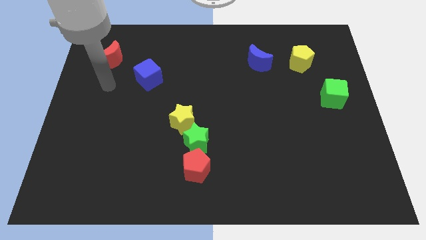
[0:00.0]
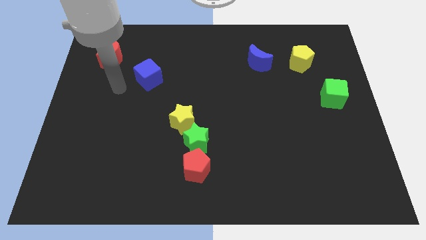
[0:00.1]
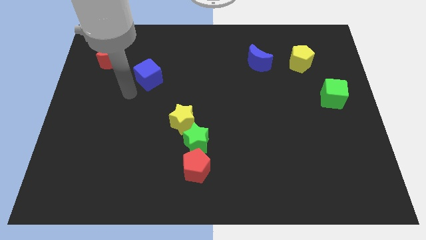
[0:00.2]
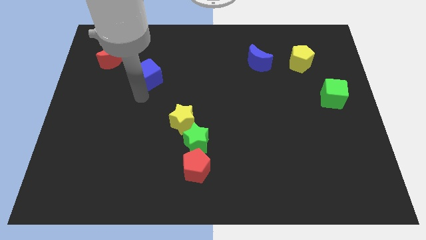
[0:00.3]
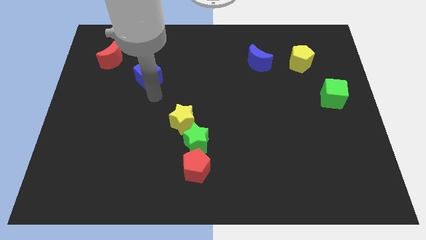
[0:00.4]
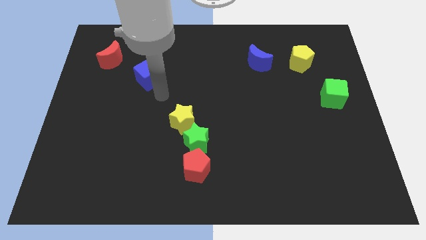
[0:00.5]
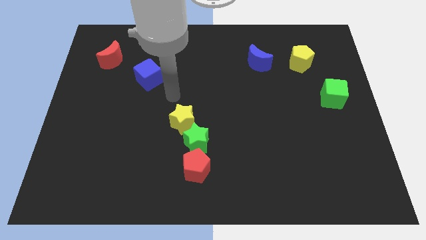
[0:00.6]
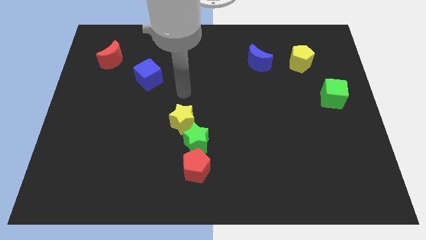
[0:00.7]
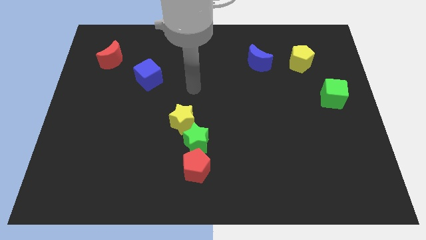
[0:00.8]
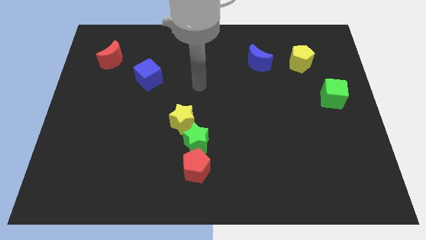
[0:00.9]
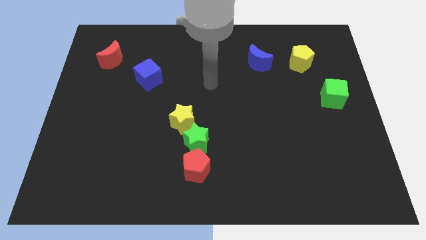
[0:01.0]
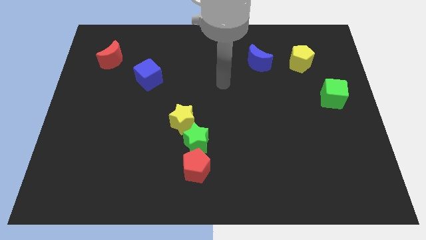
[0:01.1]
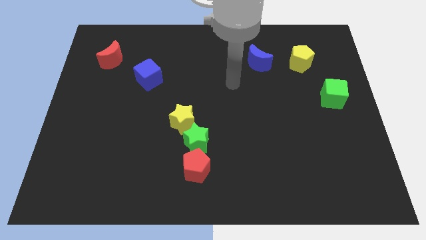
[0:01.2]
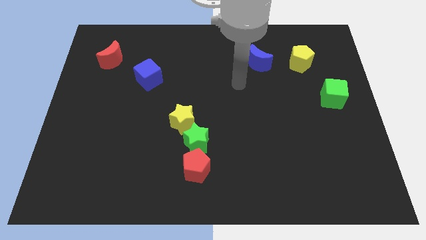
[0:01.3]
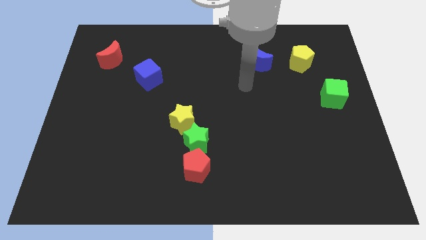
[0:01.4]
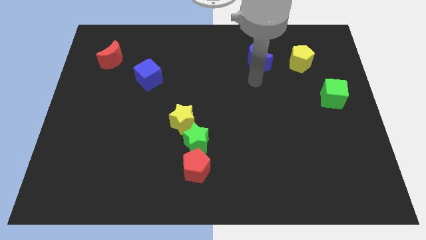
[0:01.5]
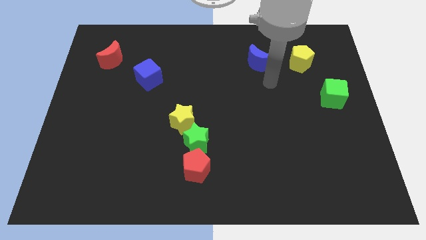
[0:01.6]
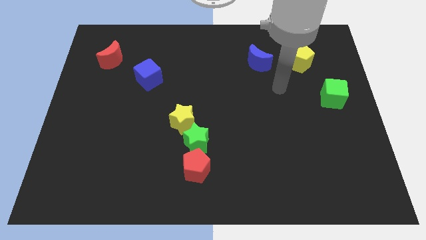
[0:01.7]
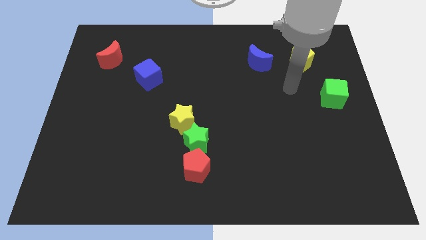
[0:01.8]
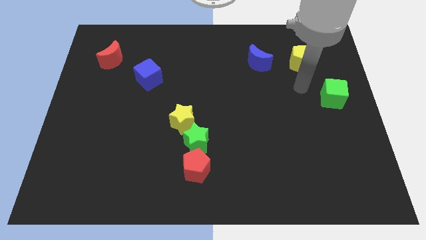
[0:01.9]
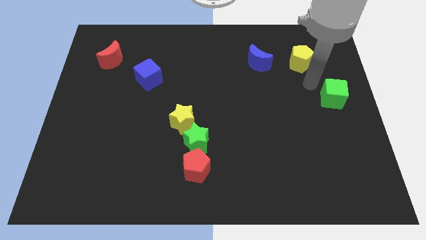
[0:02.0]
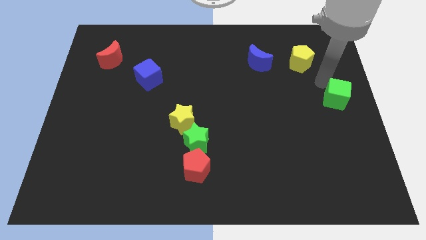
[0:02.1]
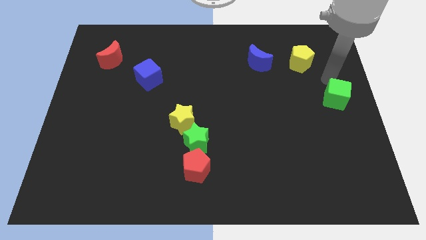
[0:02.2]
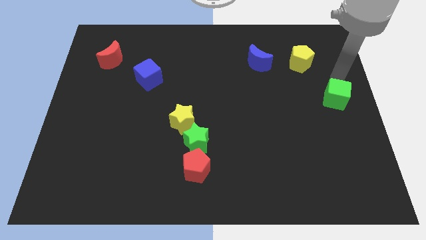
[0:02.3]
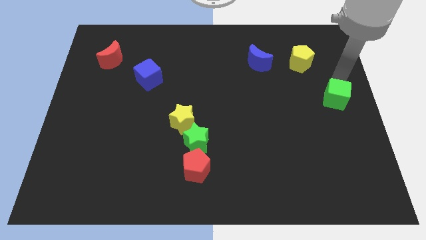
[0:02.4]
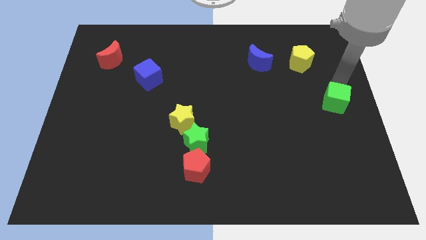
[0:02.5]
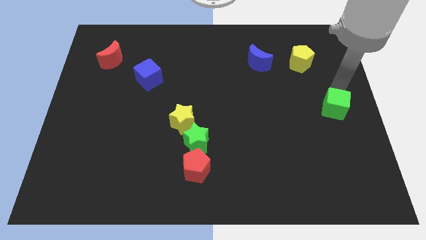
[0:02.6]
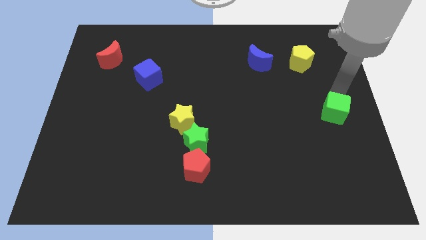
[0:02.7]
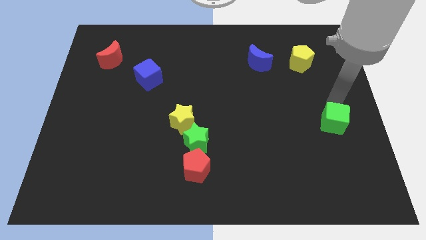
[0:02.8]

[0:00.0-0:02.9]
slightly move the green cube downwards

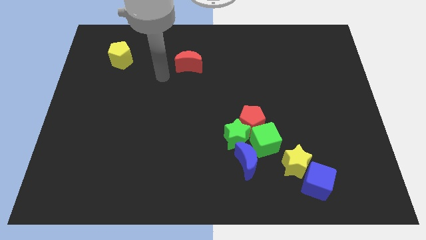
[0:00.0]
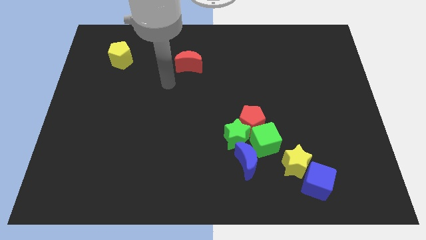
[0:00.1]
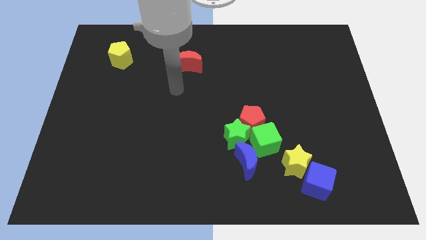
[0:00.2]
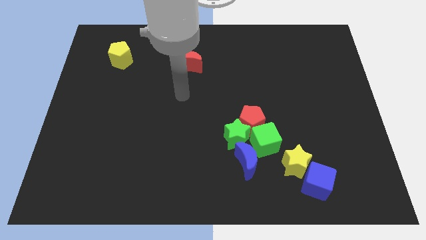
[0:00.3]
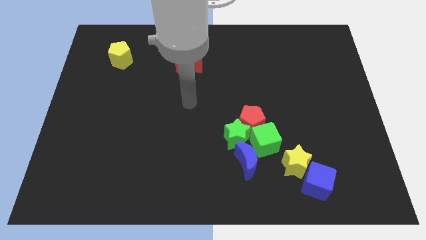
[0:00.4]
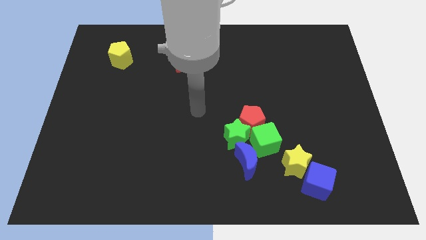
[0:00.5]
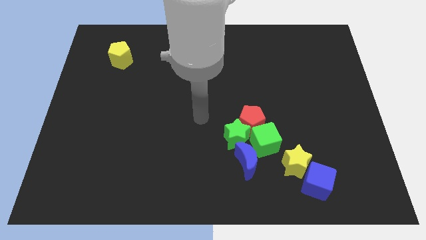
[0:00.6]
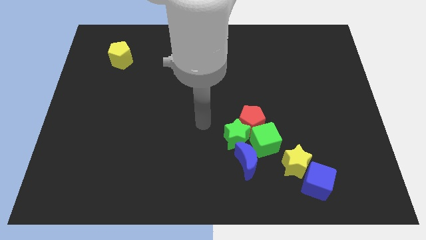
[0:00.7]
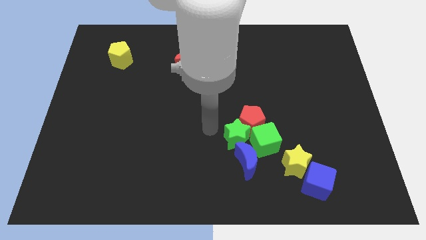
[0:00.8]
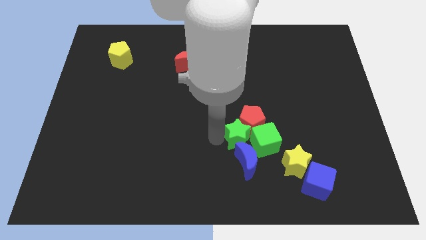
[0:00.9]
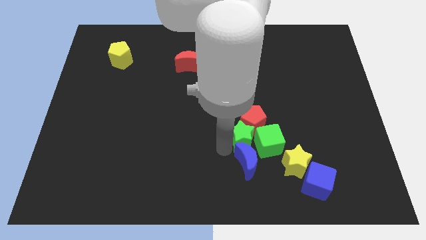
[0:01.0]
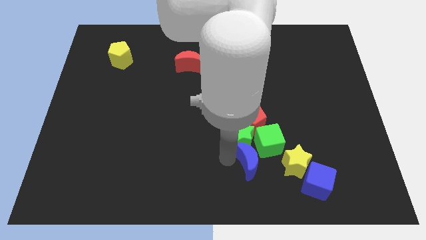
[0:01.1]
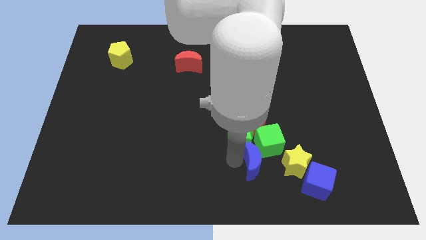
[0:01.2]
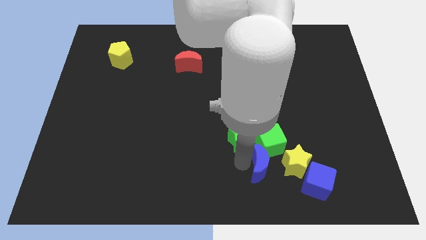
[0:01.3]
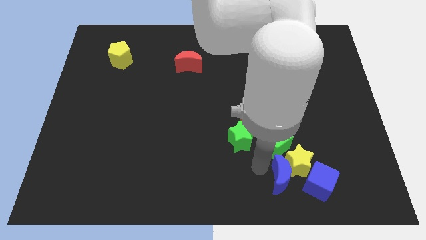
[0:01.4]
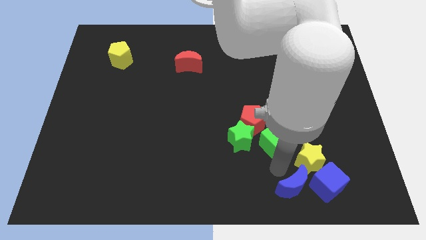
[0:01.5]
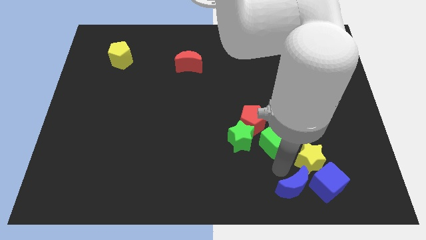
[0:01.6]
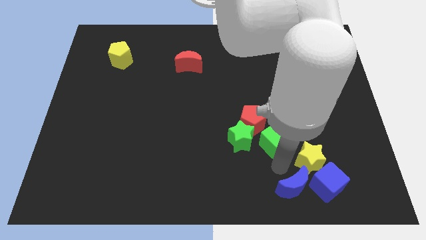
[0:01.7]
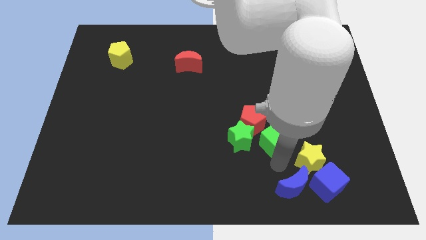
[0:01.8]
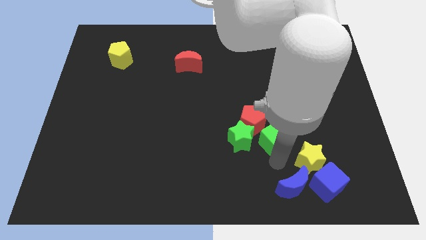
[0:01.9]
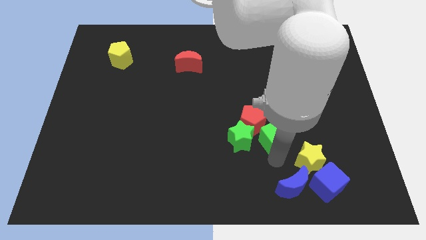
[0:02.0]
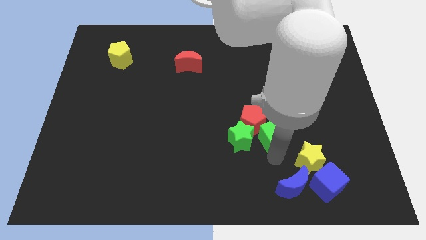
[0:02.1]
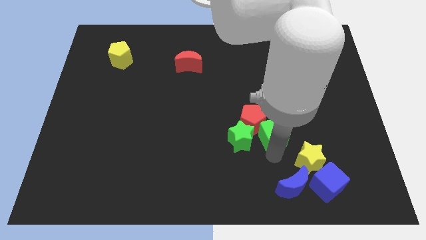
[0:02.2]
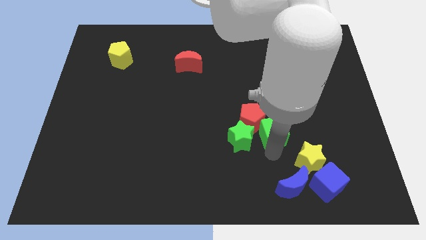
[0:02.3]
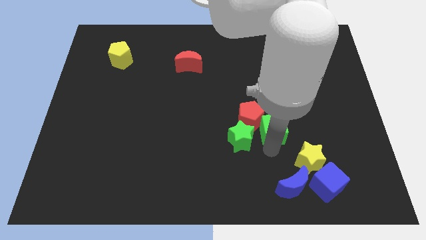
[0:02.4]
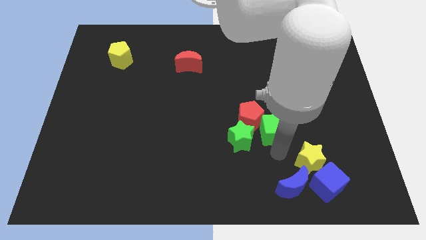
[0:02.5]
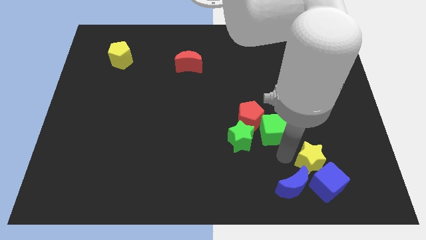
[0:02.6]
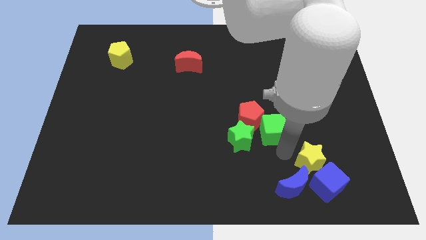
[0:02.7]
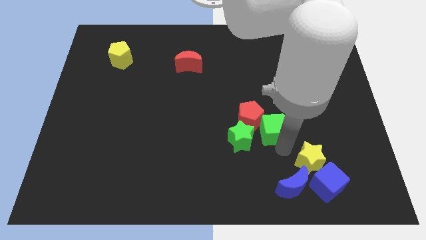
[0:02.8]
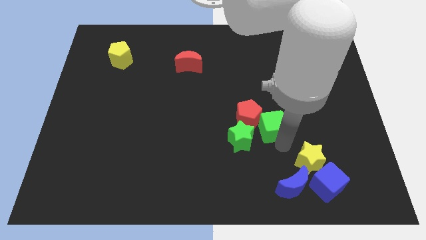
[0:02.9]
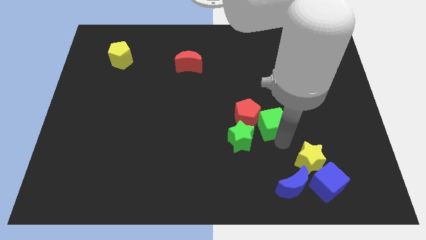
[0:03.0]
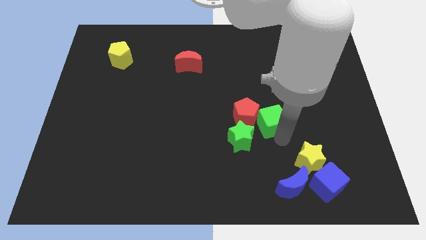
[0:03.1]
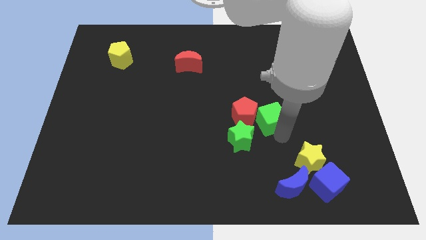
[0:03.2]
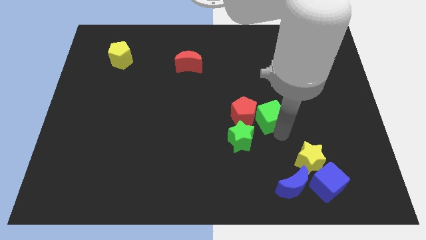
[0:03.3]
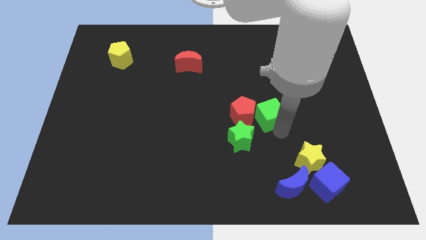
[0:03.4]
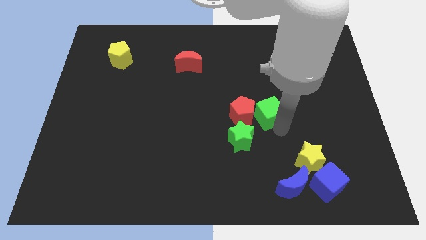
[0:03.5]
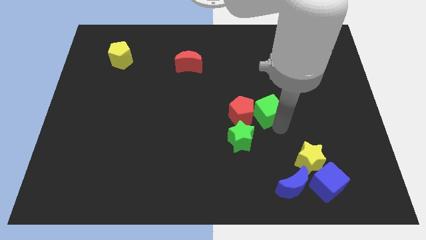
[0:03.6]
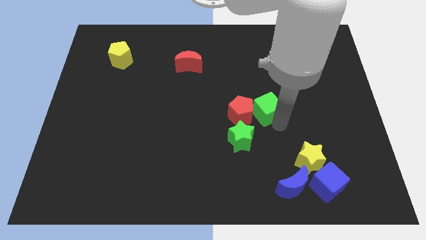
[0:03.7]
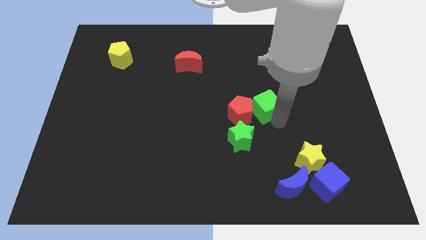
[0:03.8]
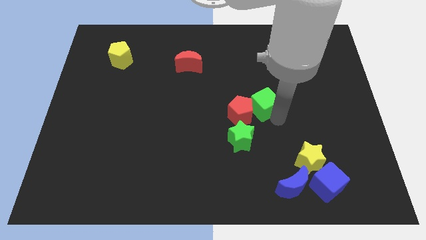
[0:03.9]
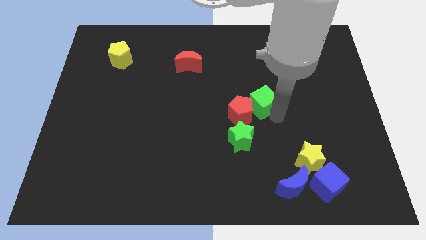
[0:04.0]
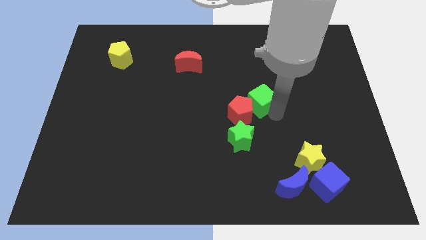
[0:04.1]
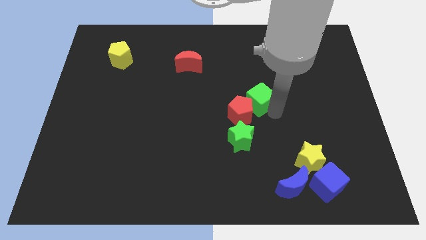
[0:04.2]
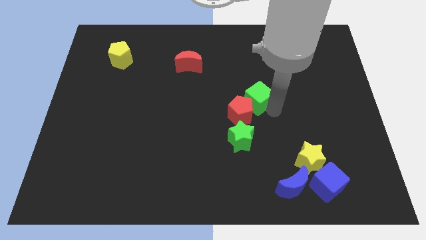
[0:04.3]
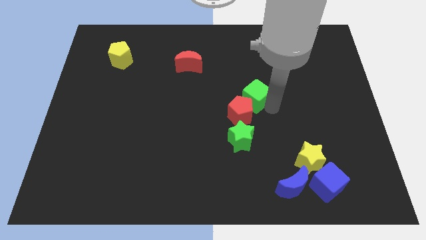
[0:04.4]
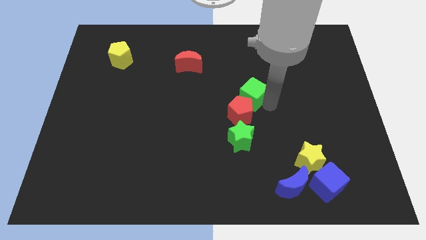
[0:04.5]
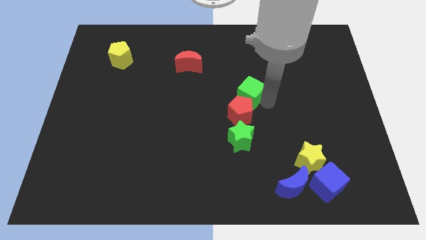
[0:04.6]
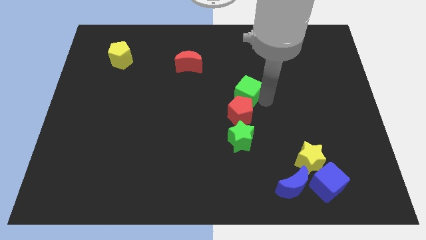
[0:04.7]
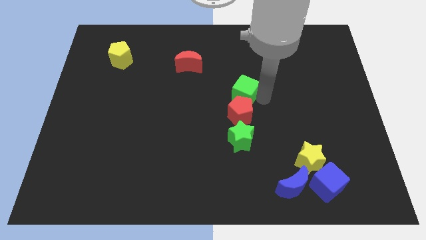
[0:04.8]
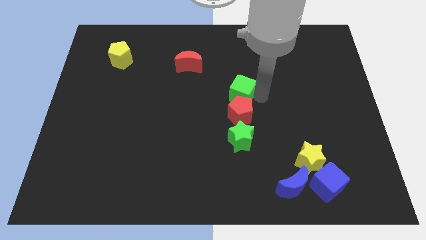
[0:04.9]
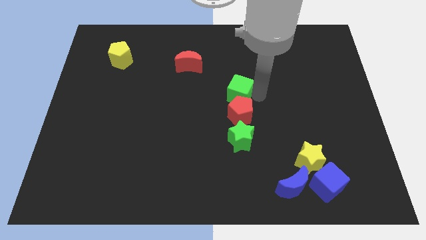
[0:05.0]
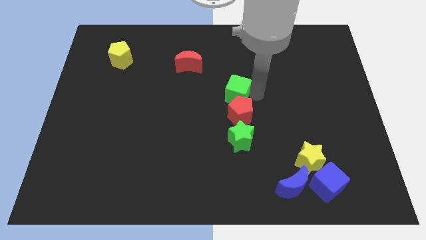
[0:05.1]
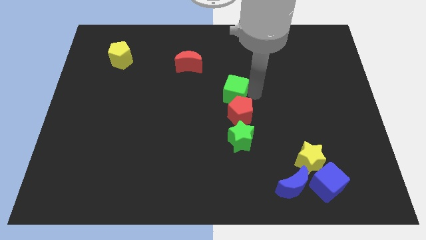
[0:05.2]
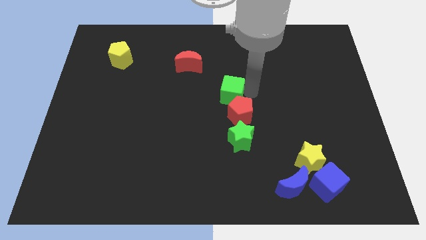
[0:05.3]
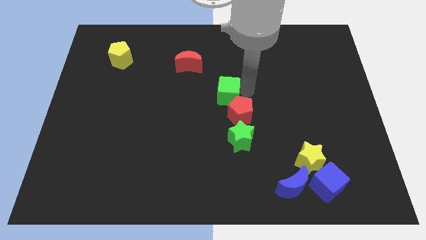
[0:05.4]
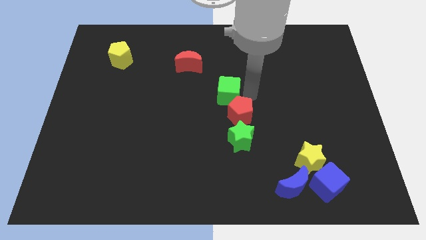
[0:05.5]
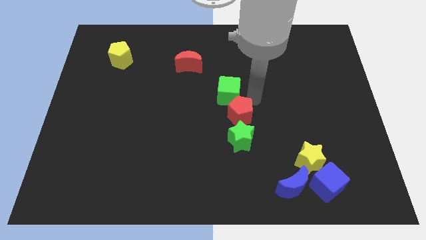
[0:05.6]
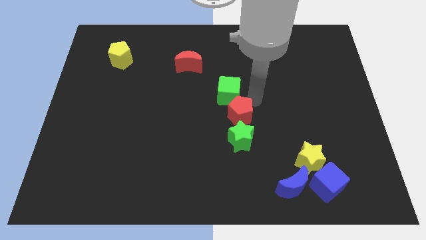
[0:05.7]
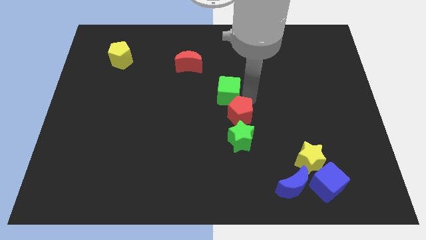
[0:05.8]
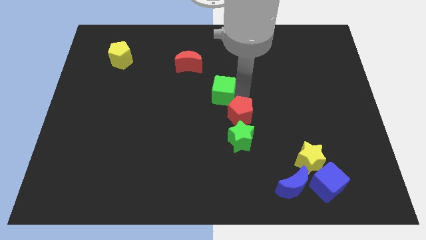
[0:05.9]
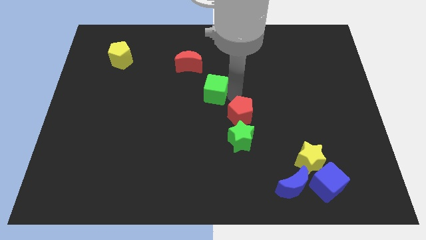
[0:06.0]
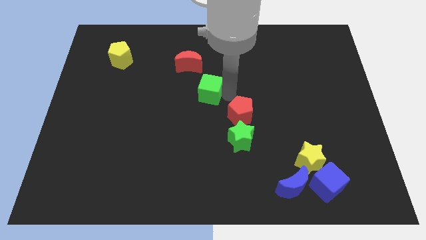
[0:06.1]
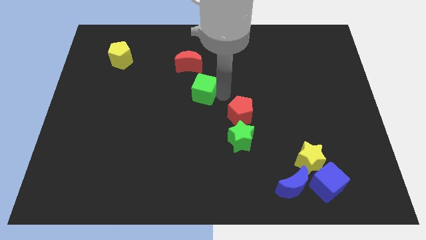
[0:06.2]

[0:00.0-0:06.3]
slide the green cube up and to the left diagonally
